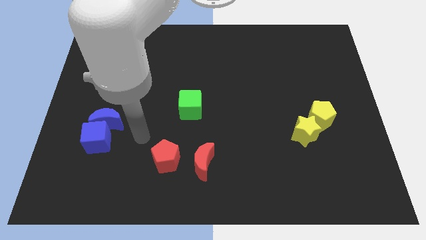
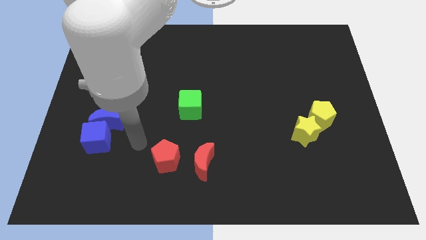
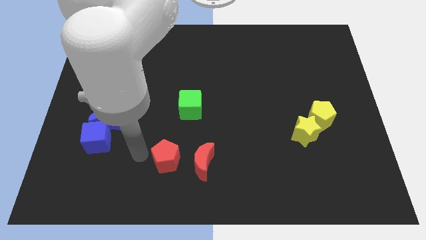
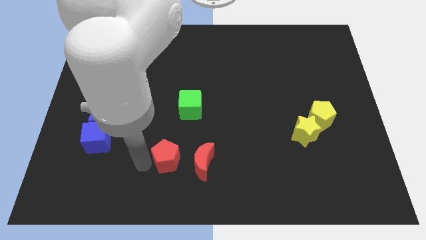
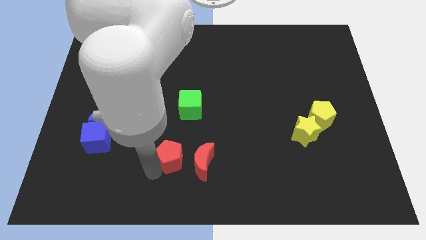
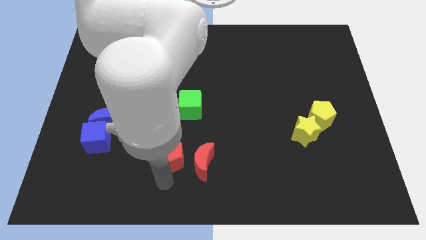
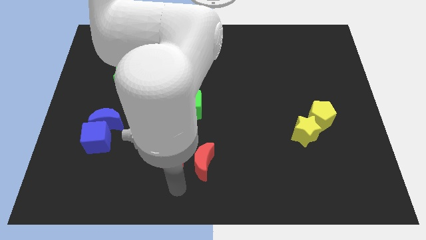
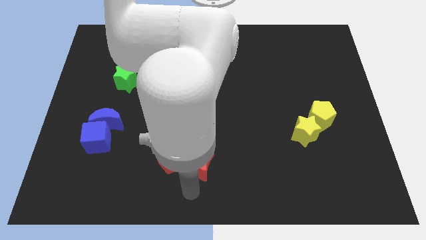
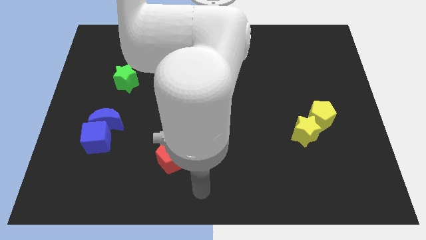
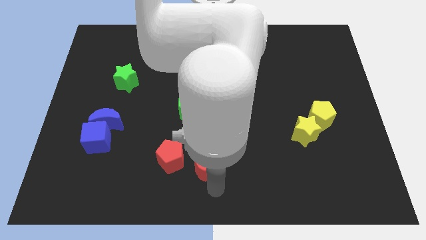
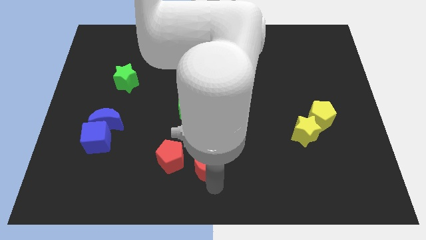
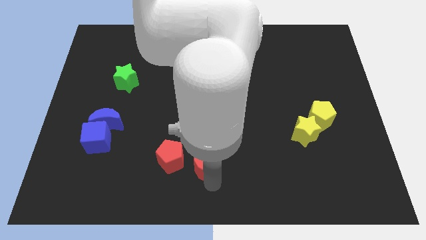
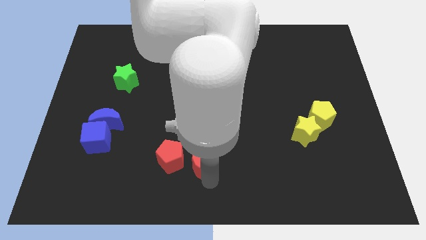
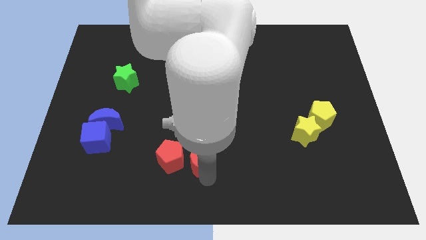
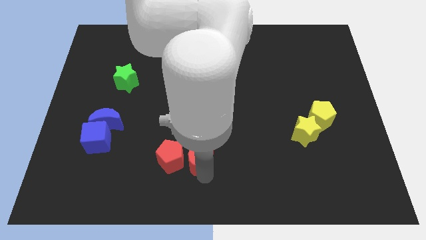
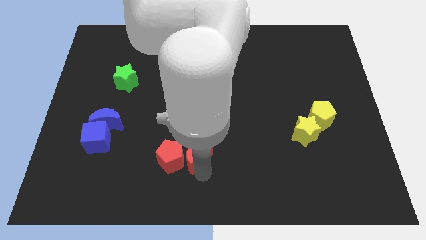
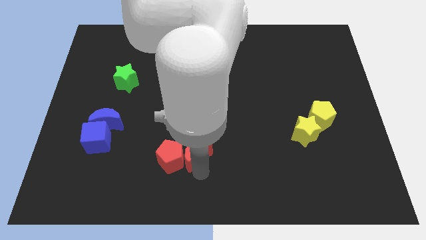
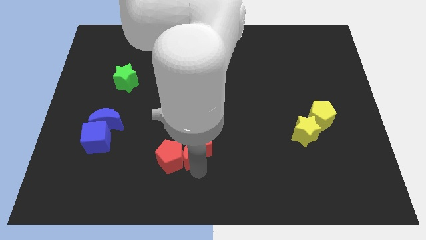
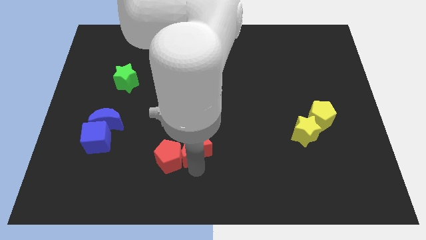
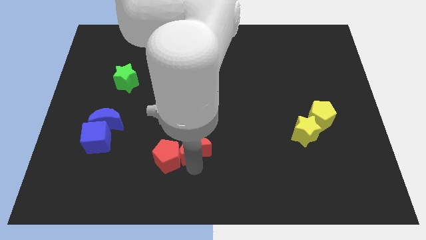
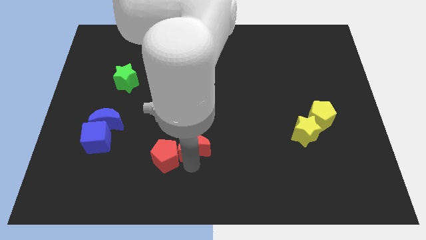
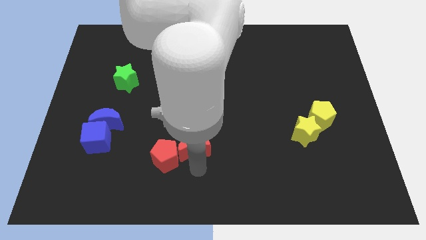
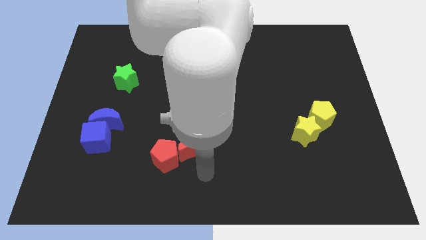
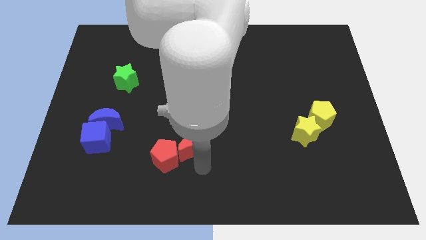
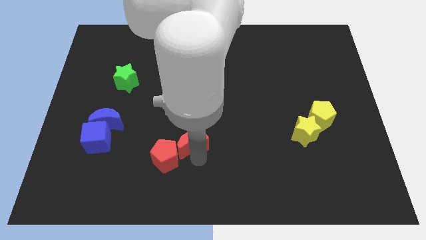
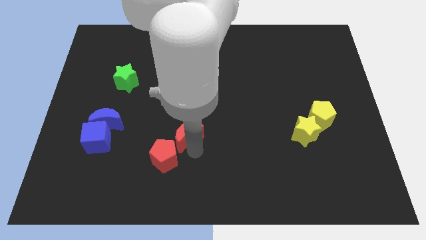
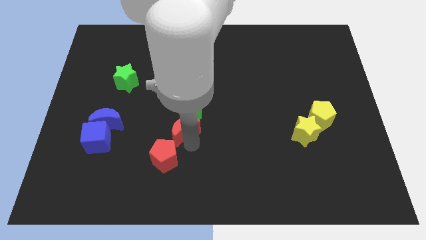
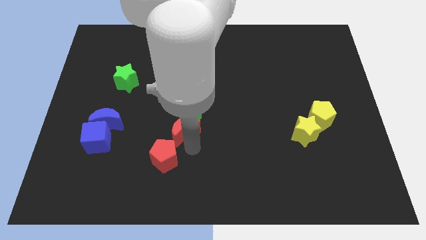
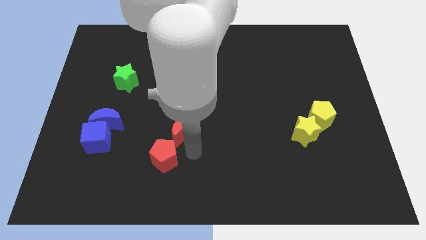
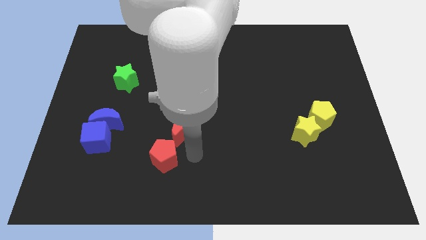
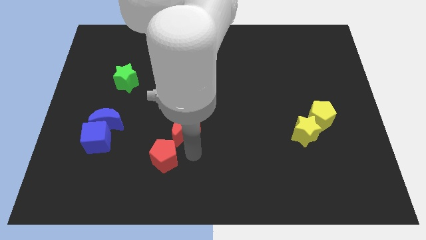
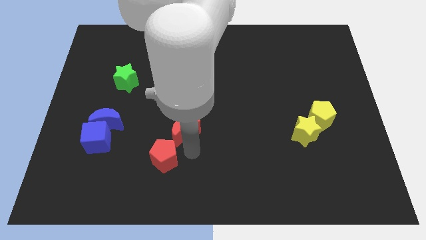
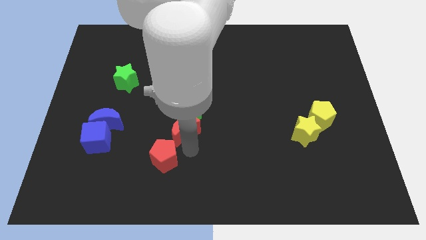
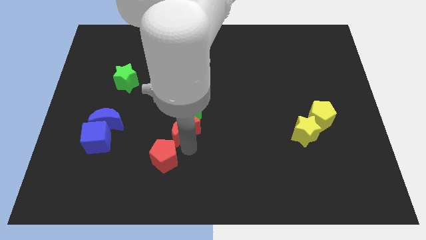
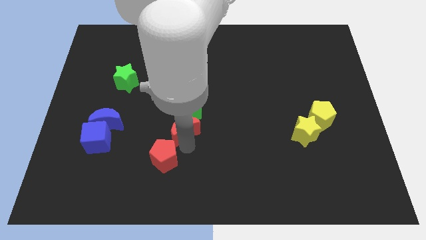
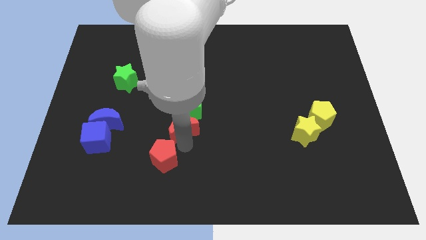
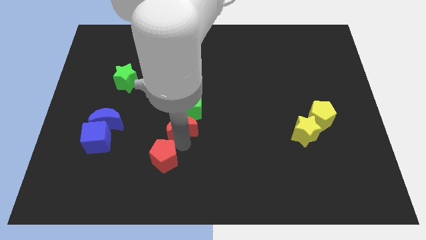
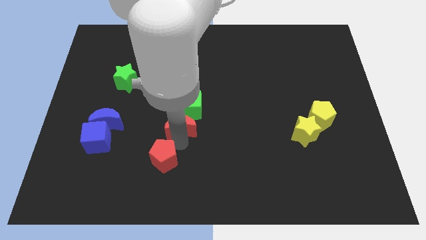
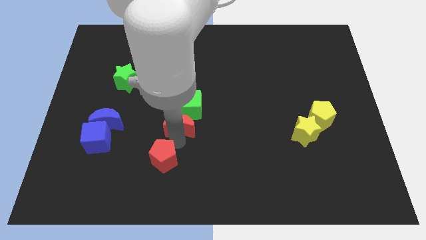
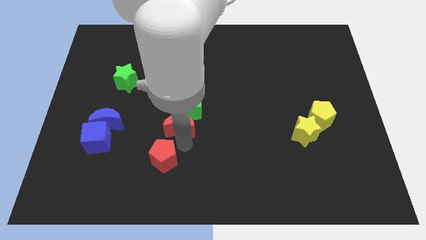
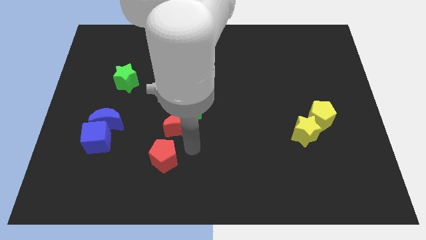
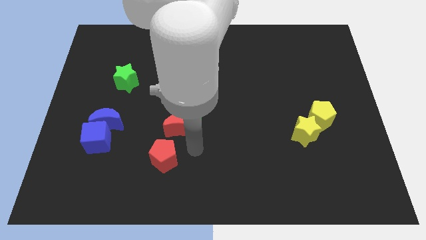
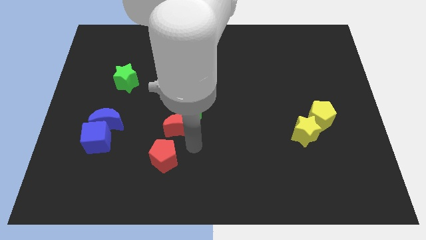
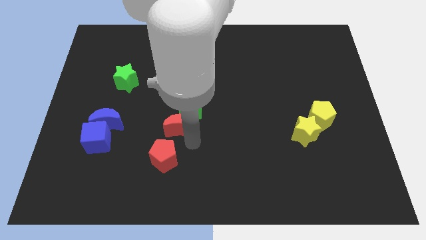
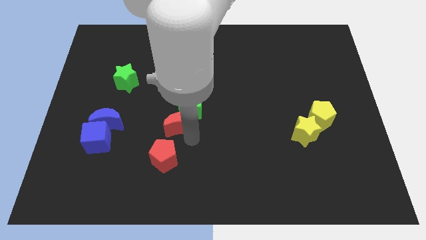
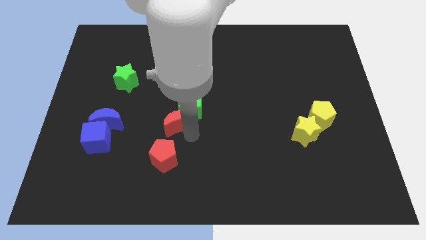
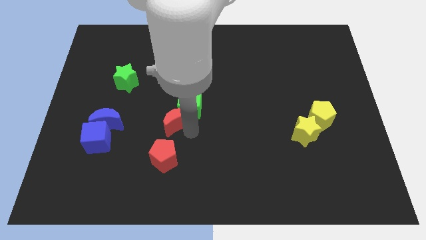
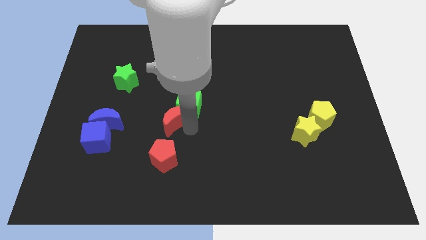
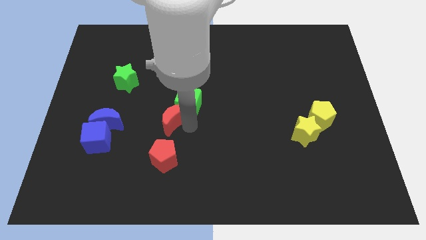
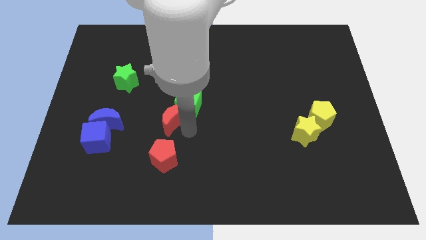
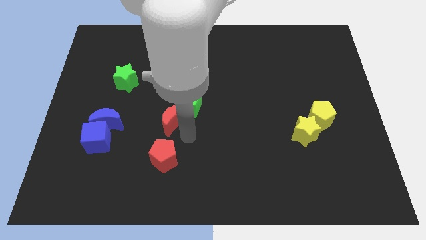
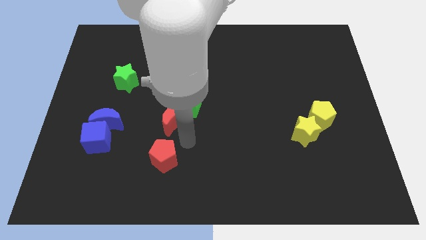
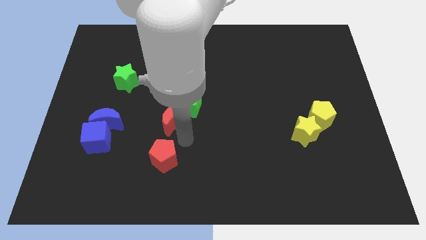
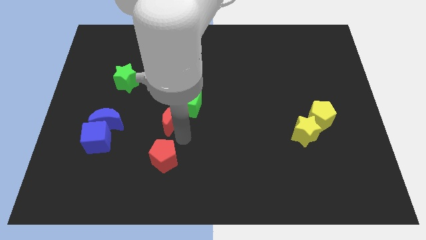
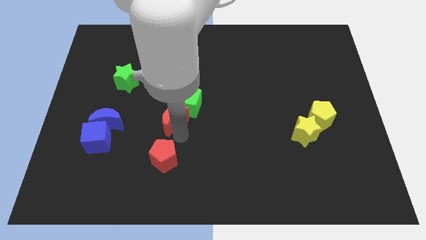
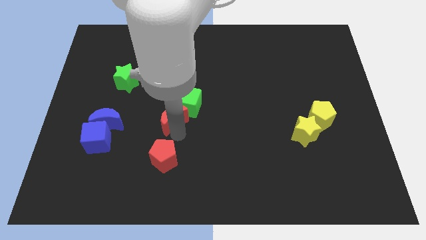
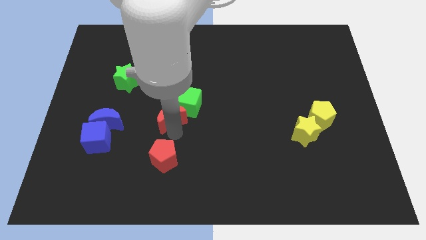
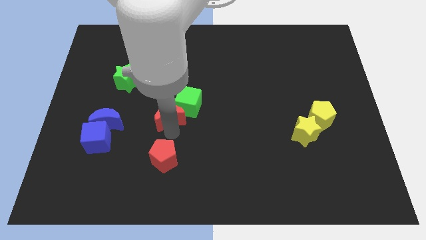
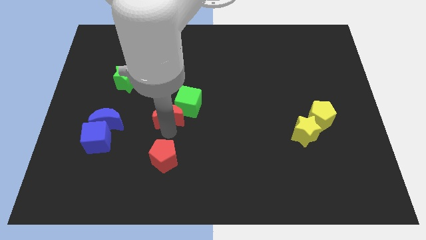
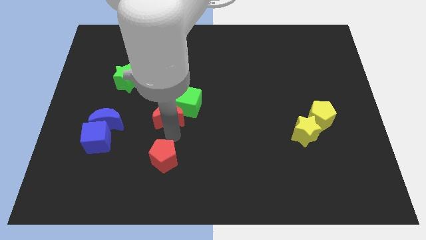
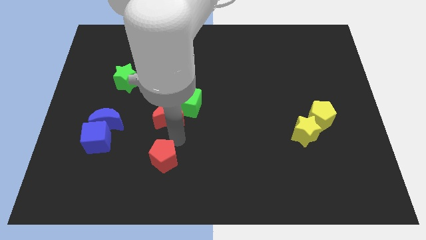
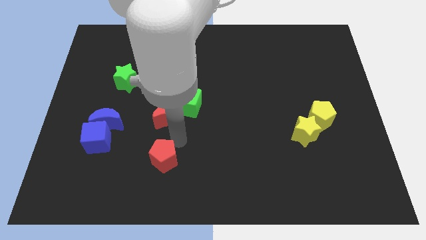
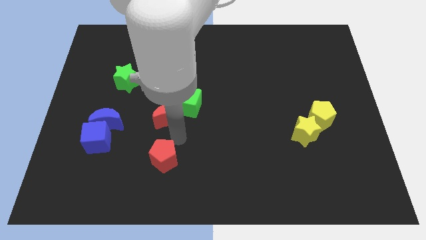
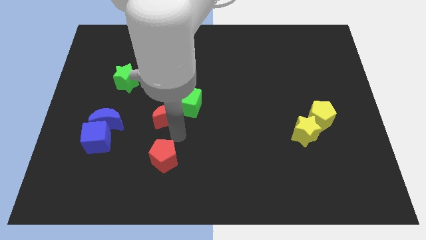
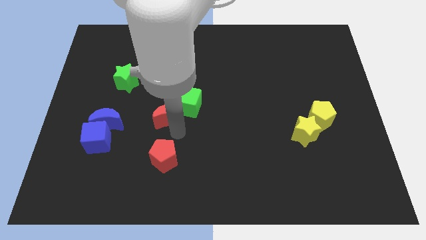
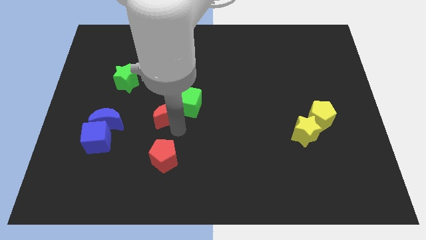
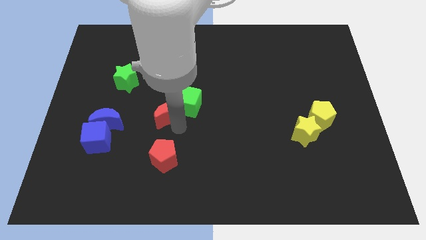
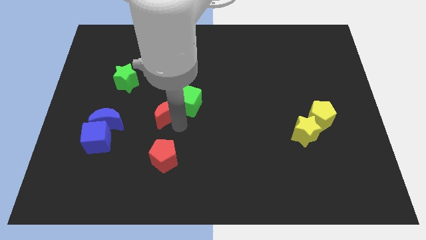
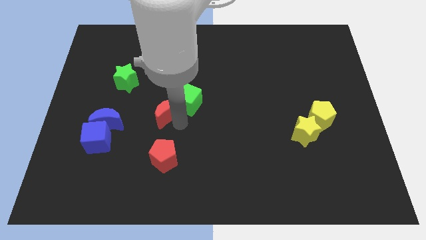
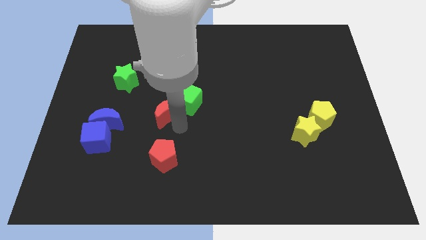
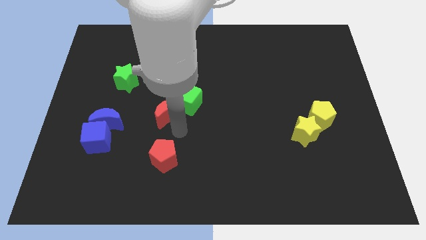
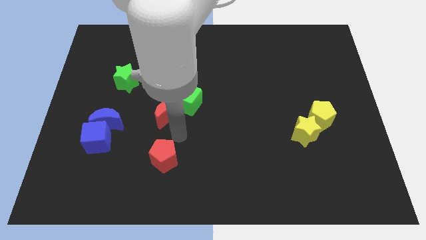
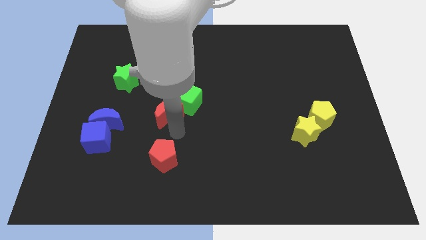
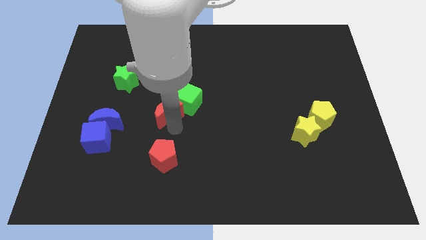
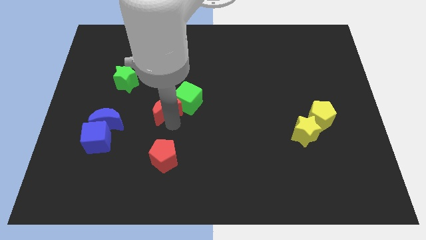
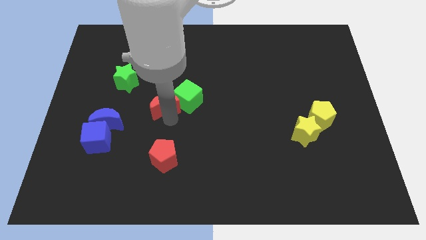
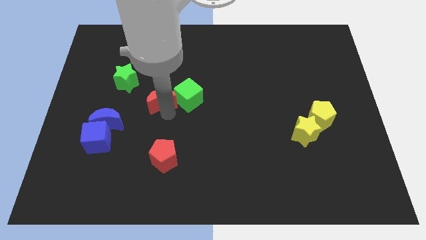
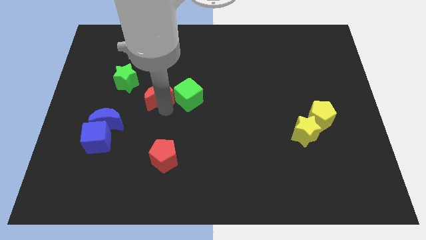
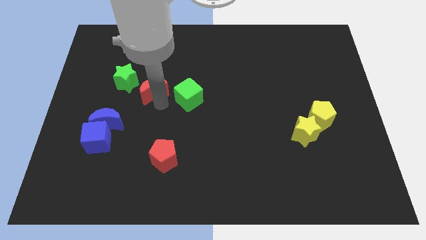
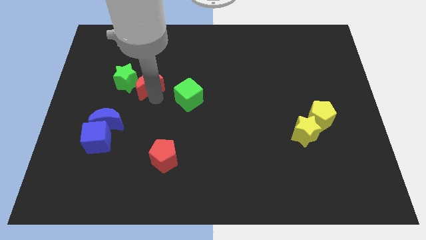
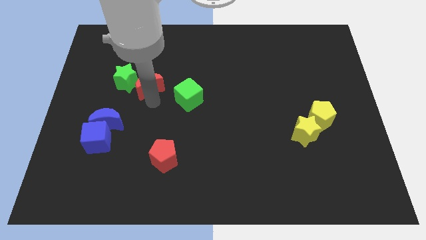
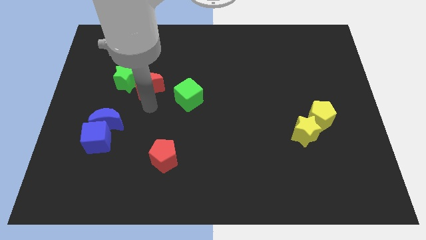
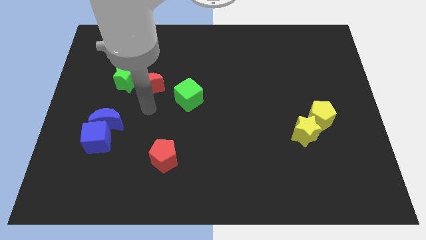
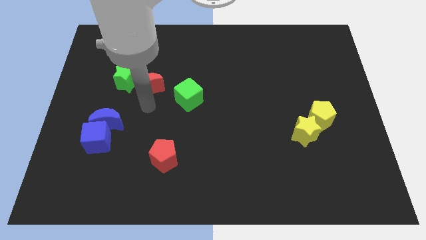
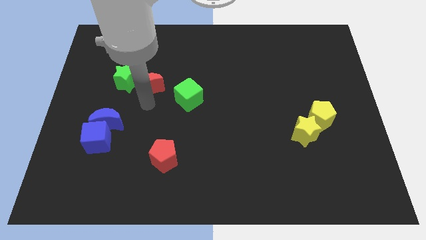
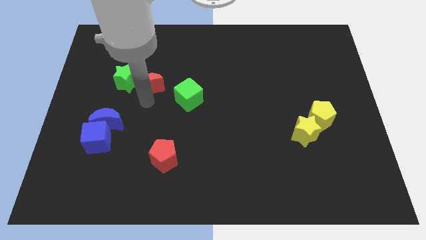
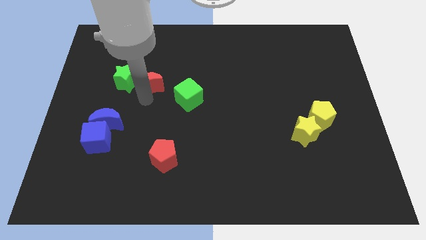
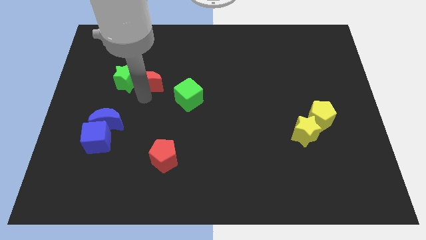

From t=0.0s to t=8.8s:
move the red moon diagonally up and to the right of the green star
